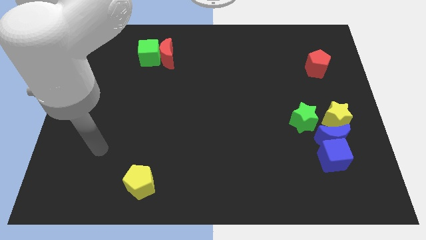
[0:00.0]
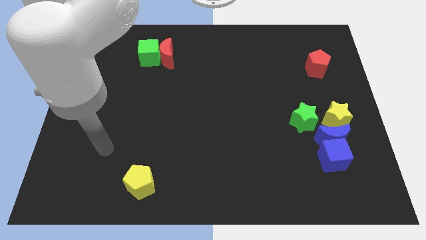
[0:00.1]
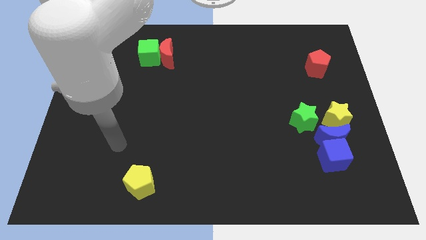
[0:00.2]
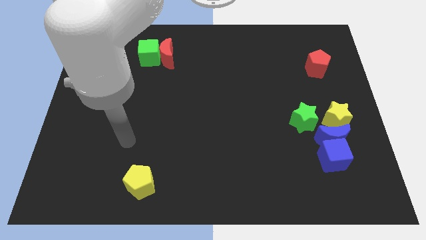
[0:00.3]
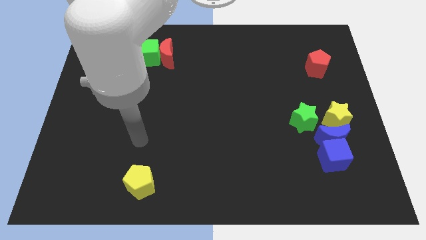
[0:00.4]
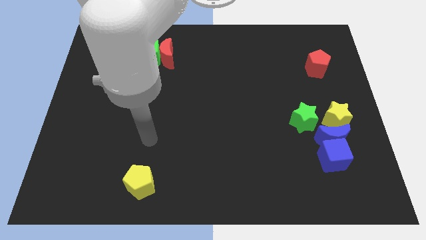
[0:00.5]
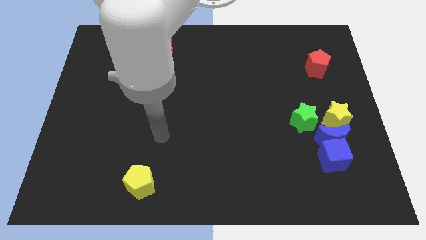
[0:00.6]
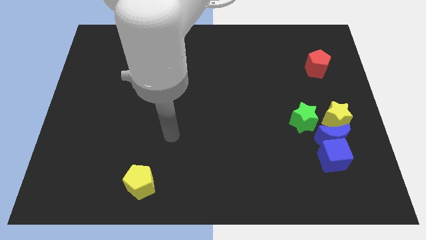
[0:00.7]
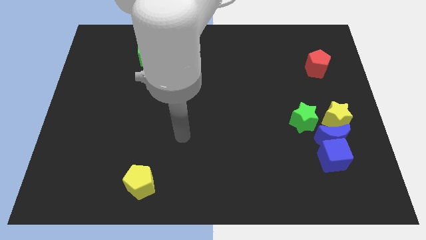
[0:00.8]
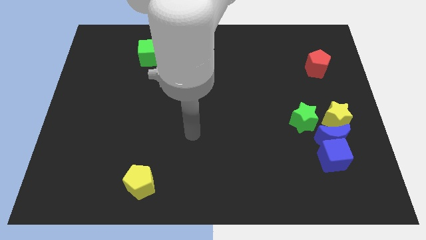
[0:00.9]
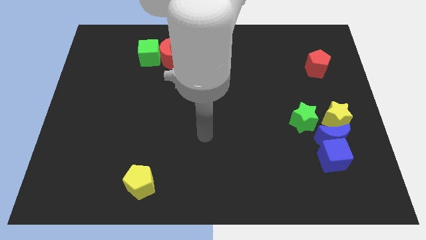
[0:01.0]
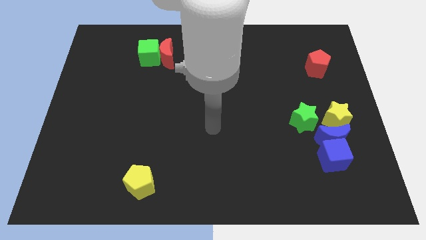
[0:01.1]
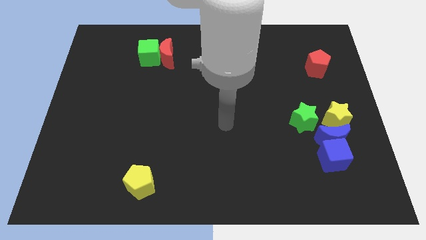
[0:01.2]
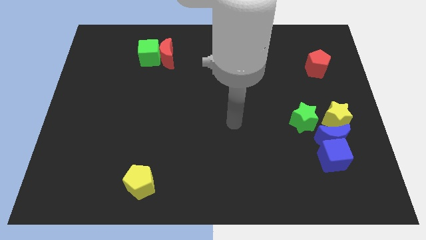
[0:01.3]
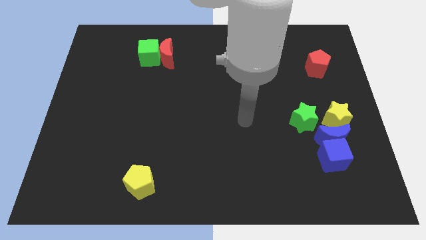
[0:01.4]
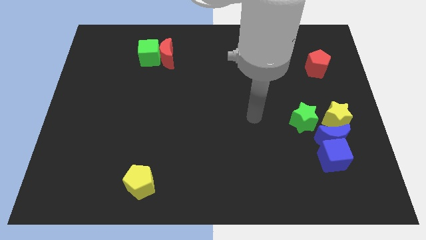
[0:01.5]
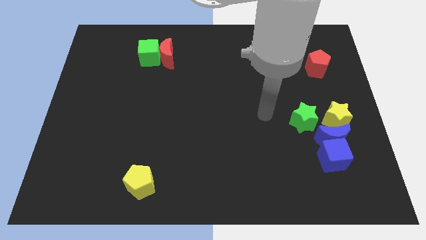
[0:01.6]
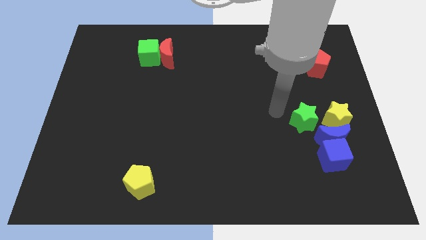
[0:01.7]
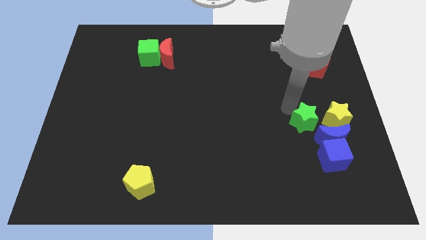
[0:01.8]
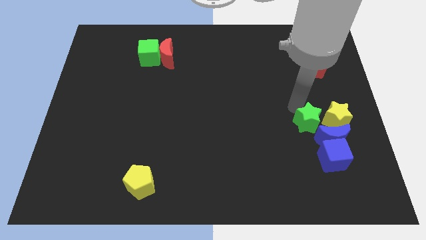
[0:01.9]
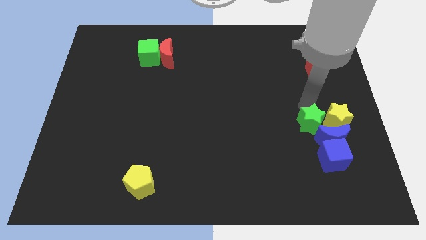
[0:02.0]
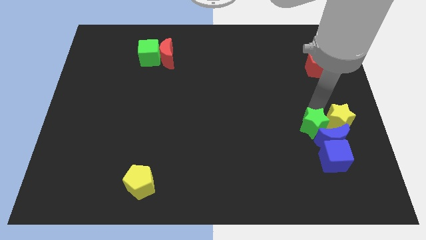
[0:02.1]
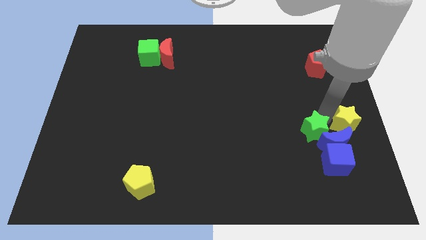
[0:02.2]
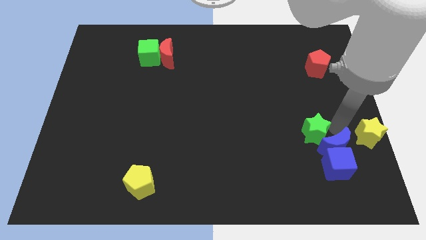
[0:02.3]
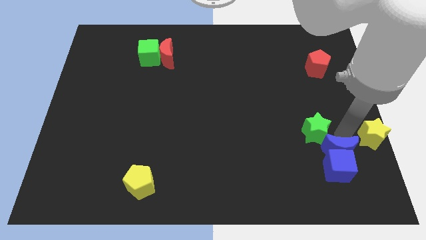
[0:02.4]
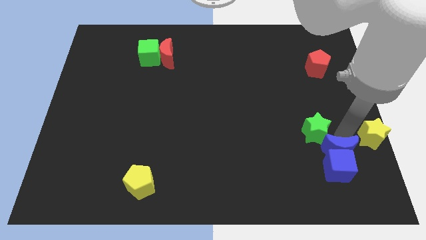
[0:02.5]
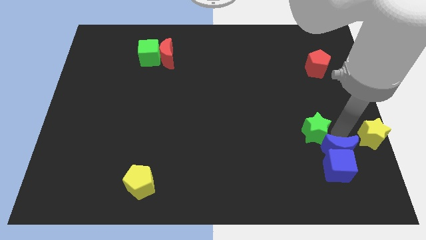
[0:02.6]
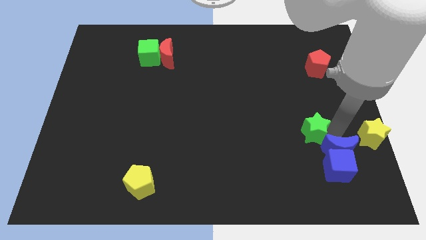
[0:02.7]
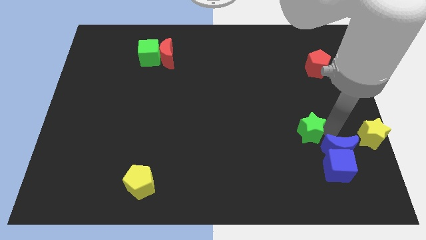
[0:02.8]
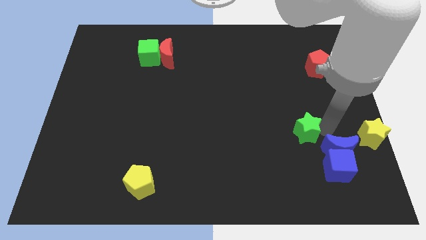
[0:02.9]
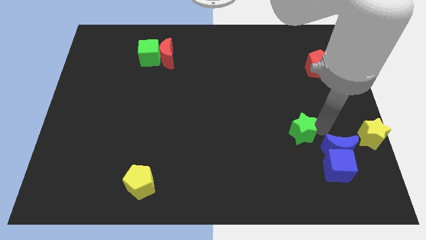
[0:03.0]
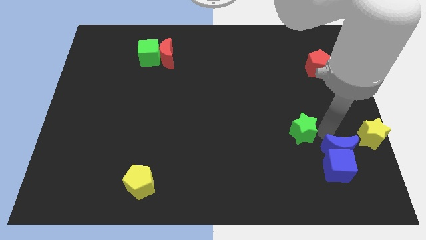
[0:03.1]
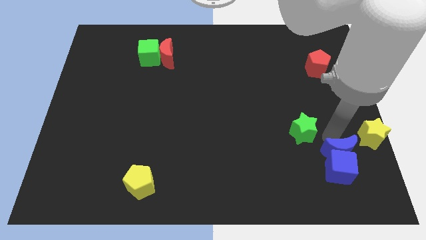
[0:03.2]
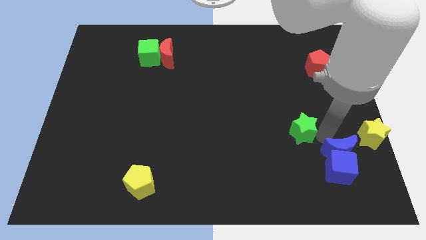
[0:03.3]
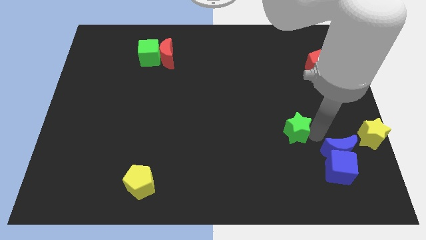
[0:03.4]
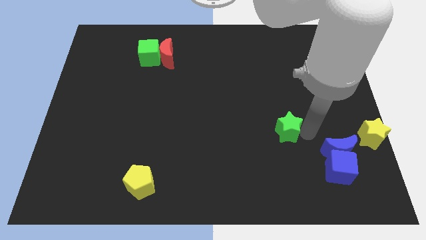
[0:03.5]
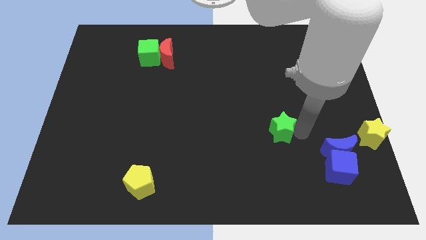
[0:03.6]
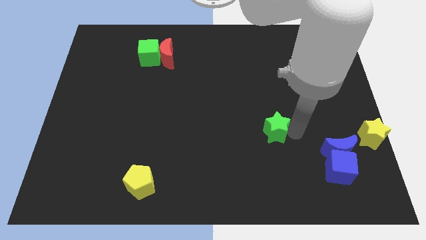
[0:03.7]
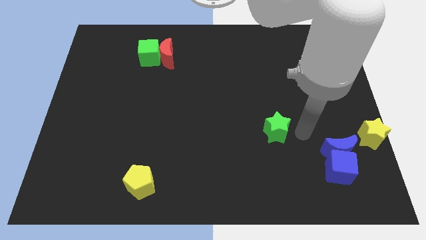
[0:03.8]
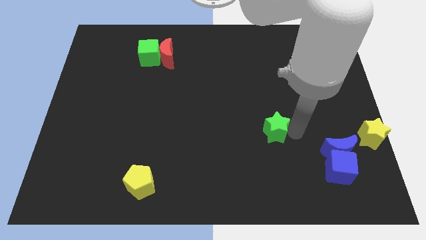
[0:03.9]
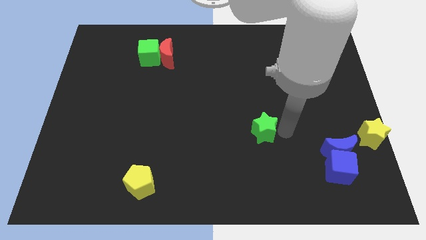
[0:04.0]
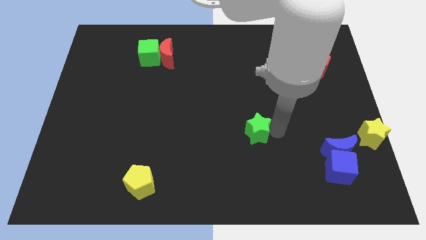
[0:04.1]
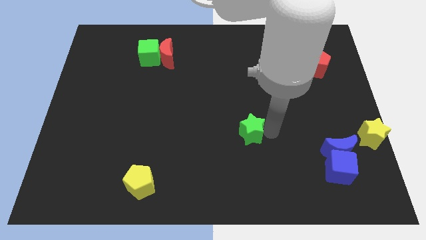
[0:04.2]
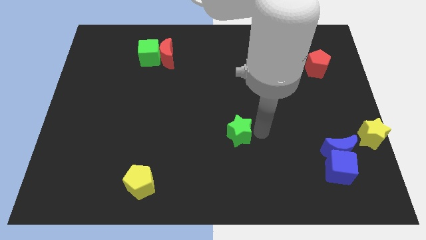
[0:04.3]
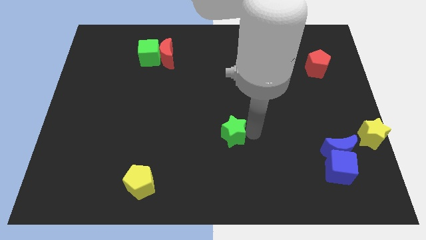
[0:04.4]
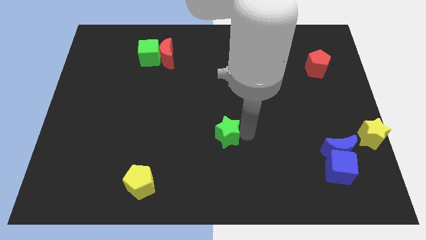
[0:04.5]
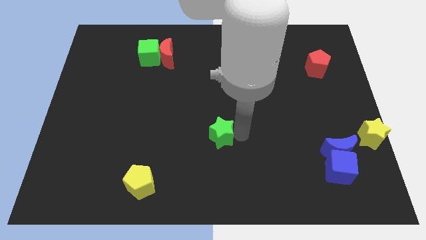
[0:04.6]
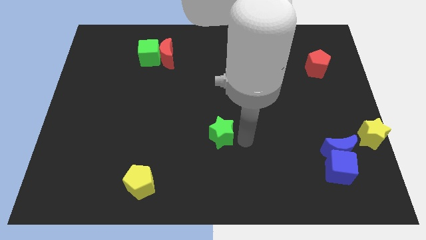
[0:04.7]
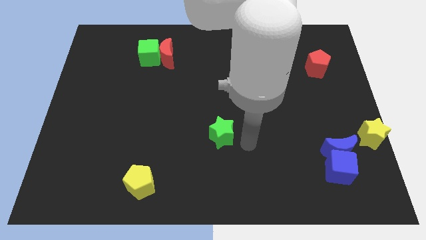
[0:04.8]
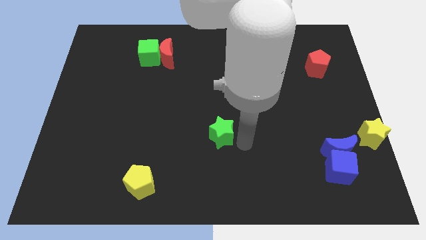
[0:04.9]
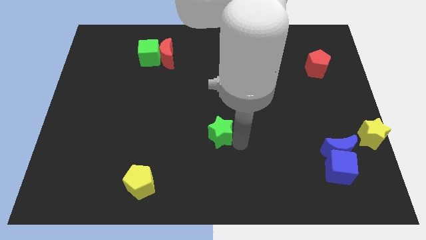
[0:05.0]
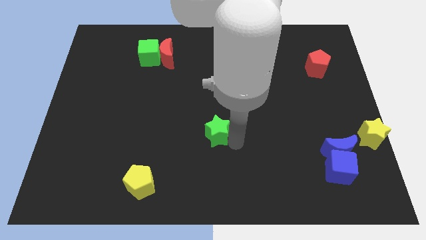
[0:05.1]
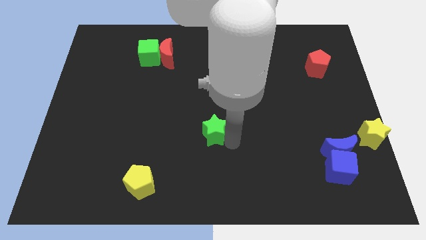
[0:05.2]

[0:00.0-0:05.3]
move the green star to the left

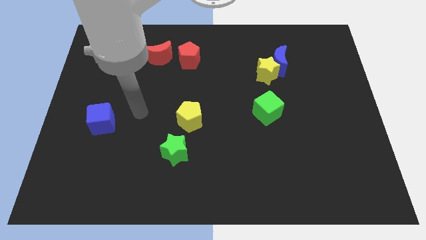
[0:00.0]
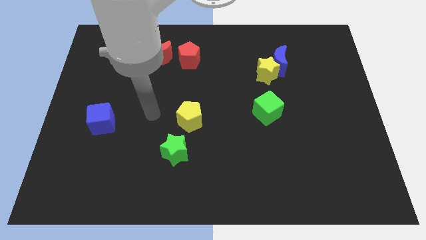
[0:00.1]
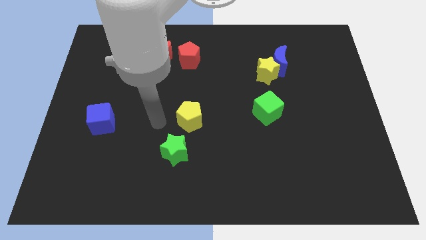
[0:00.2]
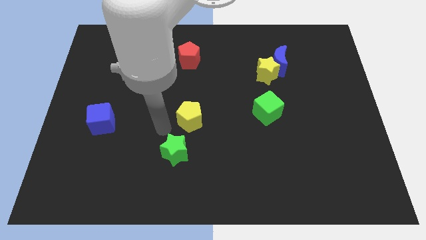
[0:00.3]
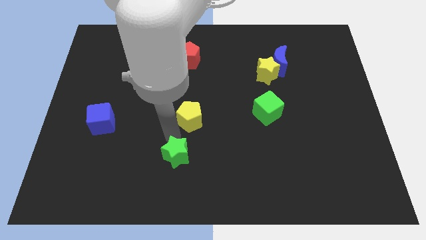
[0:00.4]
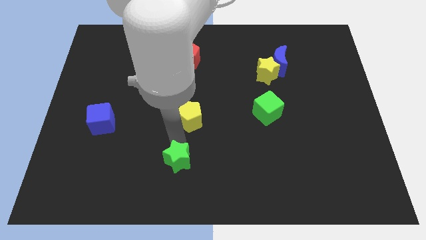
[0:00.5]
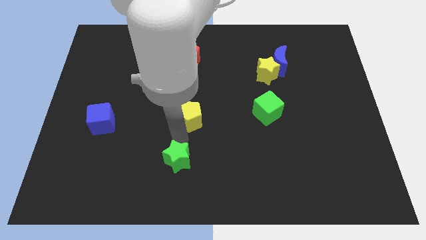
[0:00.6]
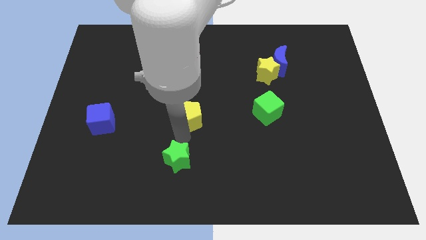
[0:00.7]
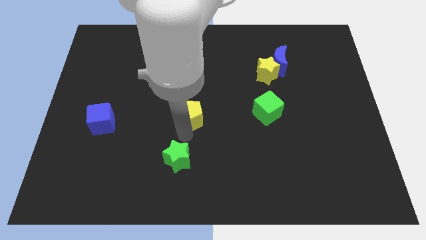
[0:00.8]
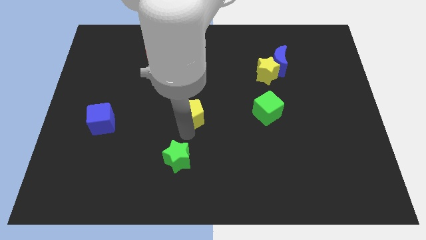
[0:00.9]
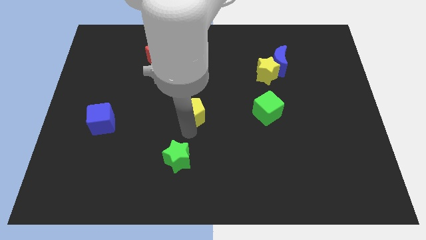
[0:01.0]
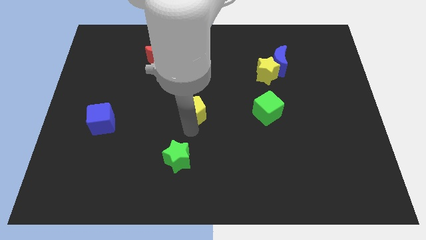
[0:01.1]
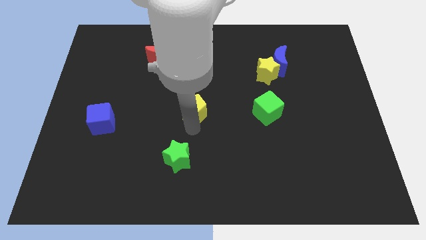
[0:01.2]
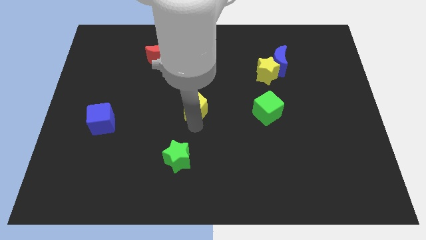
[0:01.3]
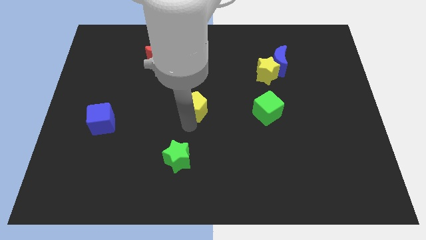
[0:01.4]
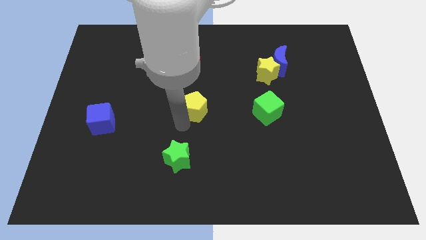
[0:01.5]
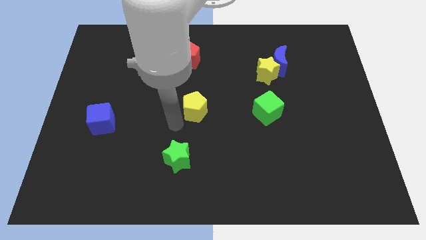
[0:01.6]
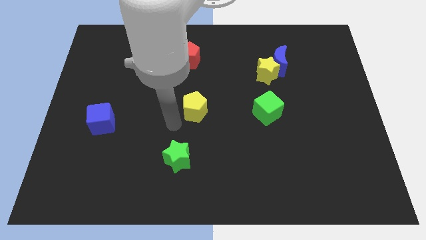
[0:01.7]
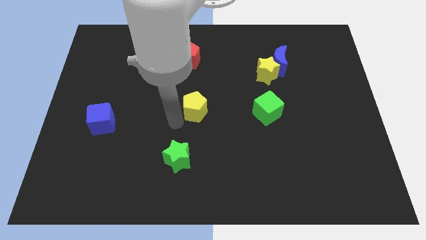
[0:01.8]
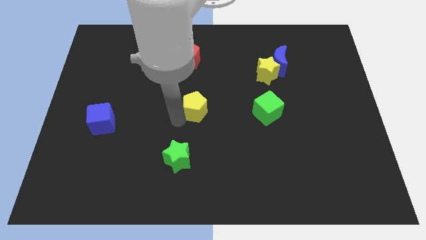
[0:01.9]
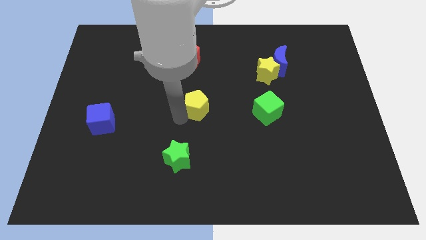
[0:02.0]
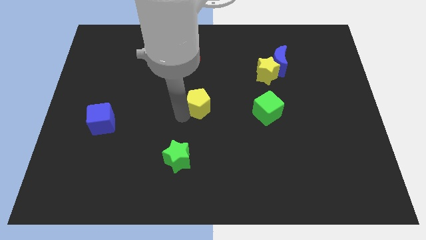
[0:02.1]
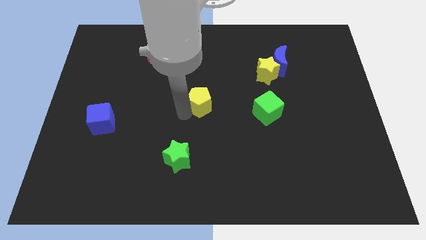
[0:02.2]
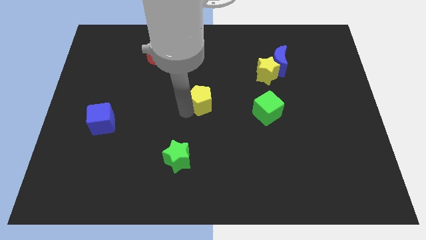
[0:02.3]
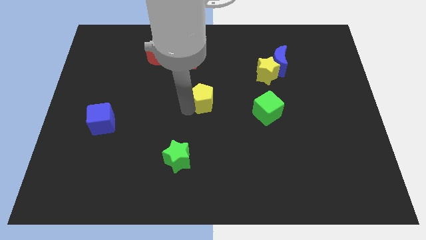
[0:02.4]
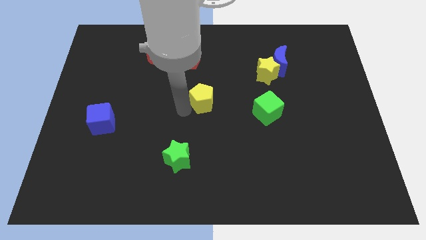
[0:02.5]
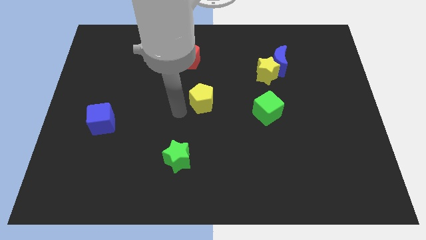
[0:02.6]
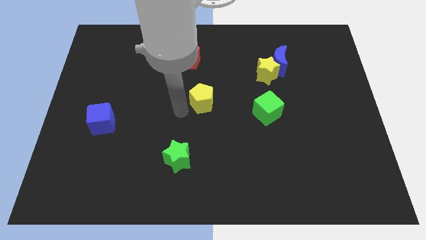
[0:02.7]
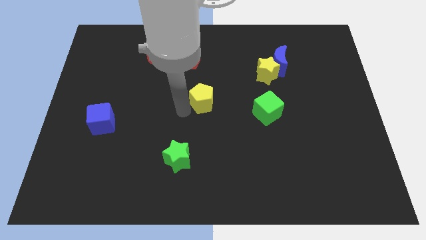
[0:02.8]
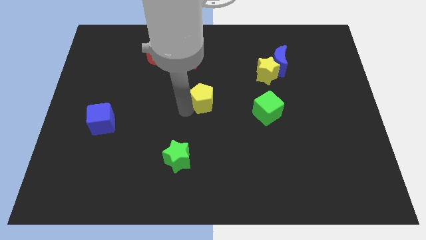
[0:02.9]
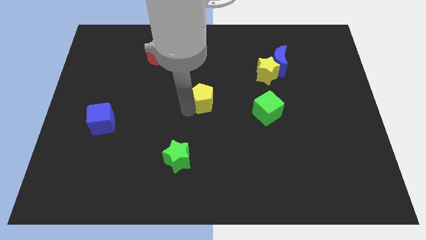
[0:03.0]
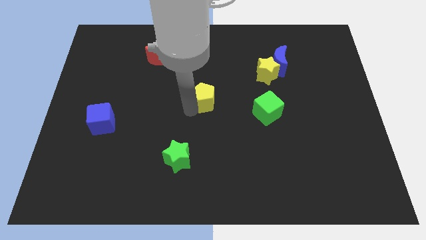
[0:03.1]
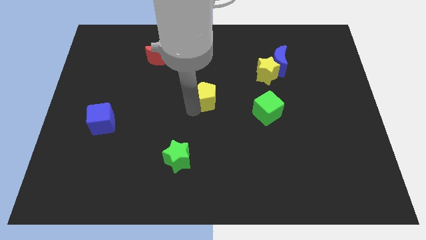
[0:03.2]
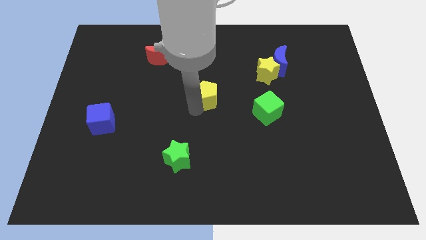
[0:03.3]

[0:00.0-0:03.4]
push the yellow pentagon a bit diagonally up and to the right
